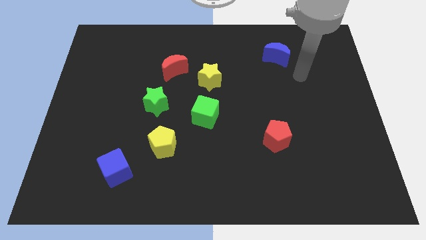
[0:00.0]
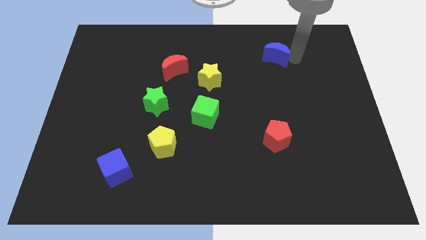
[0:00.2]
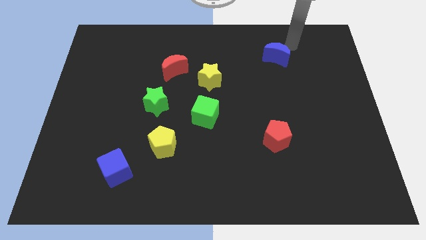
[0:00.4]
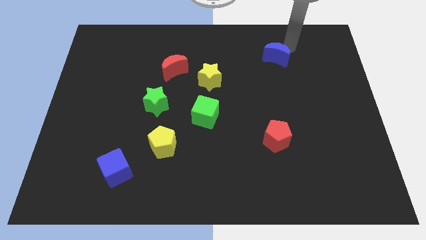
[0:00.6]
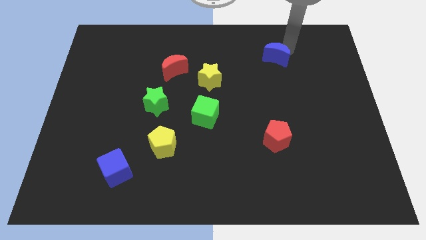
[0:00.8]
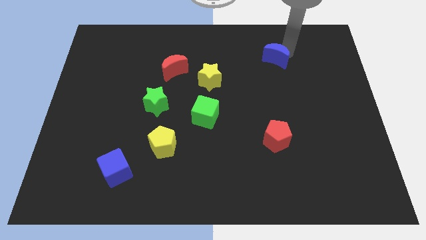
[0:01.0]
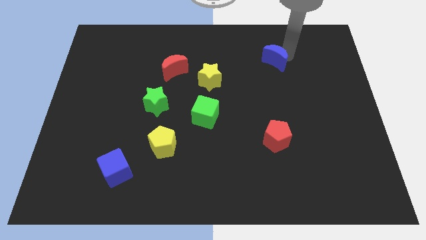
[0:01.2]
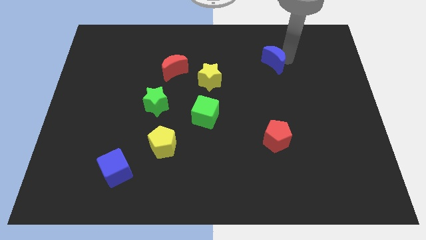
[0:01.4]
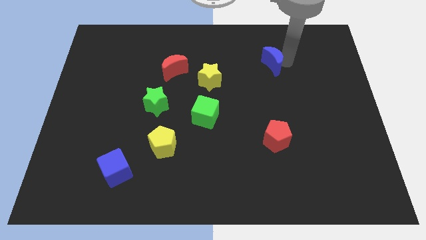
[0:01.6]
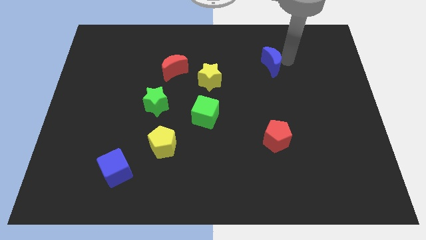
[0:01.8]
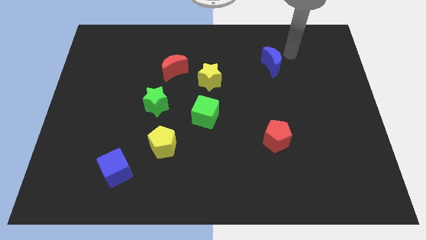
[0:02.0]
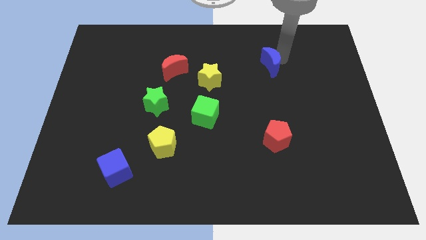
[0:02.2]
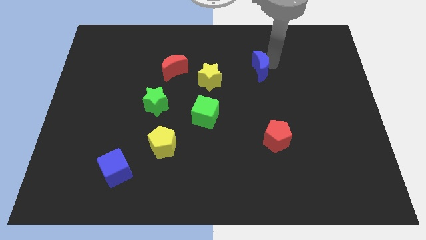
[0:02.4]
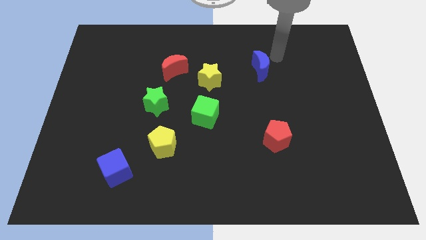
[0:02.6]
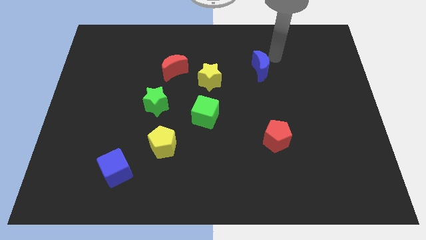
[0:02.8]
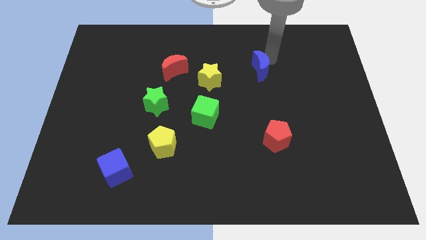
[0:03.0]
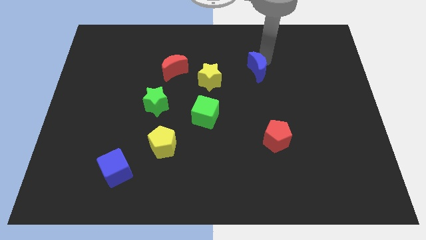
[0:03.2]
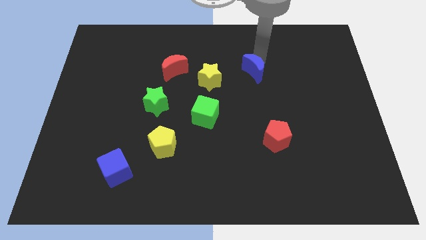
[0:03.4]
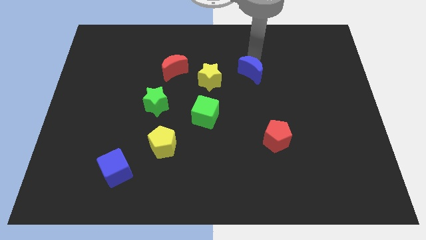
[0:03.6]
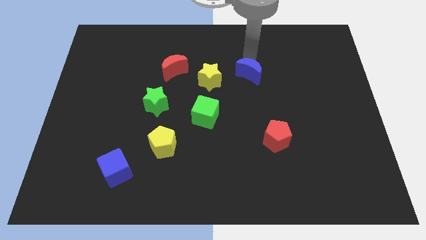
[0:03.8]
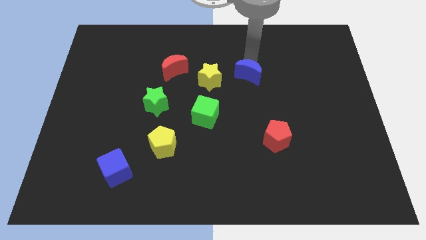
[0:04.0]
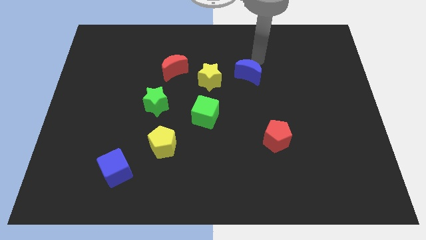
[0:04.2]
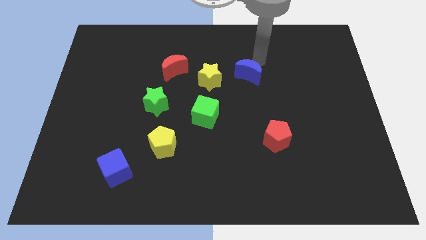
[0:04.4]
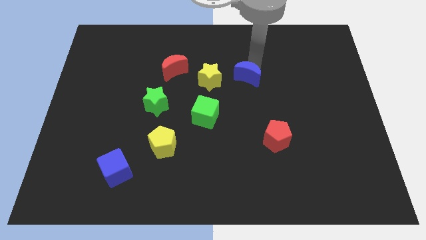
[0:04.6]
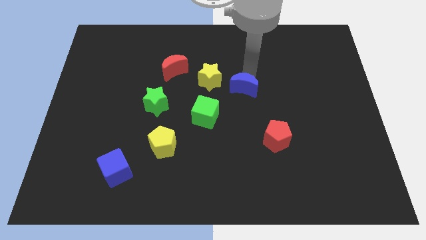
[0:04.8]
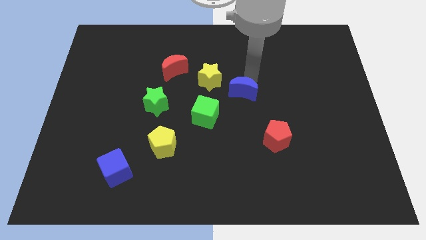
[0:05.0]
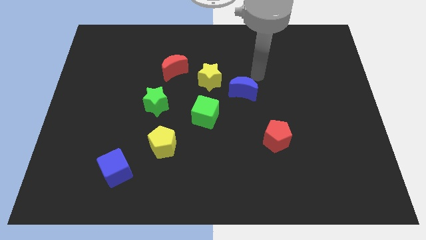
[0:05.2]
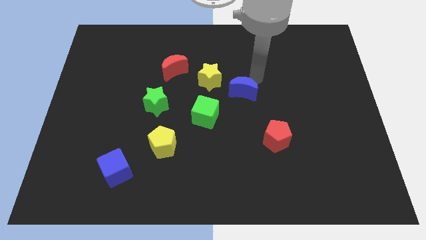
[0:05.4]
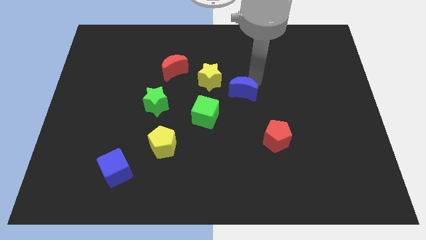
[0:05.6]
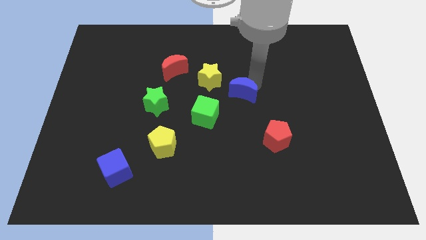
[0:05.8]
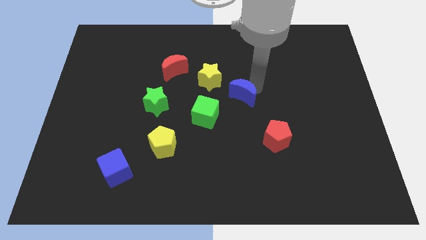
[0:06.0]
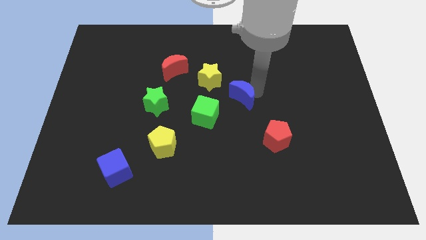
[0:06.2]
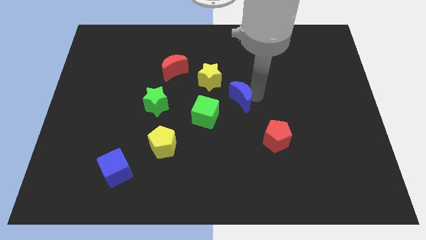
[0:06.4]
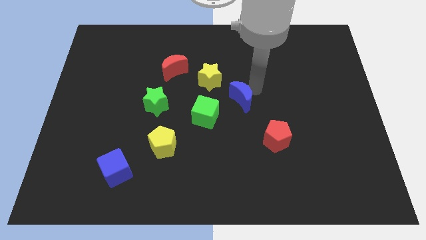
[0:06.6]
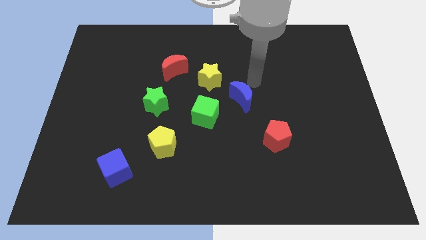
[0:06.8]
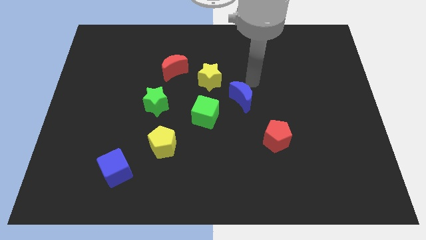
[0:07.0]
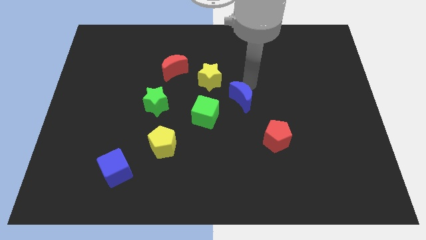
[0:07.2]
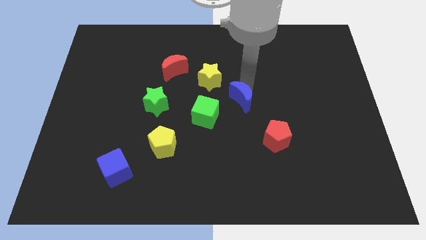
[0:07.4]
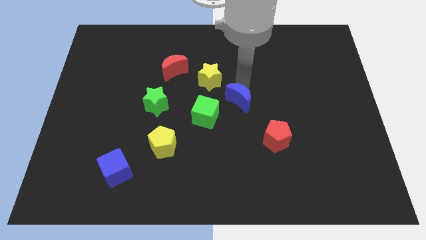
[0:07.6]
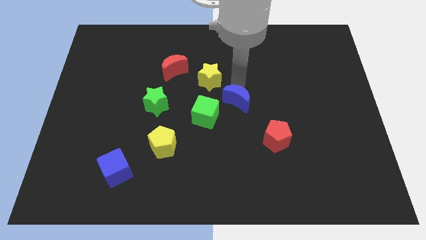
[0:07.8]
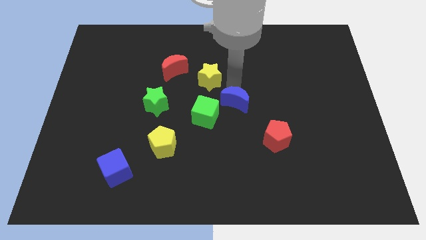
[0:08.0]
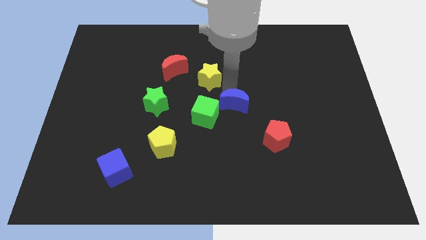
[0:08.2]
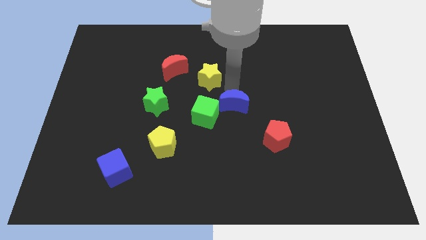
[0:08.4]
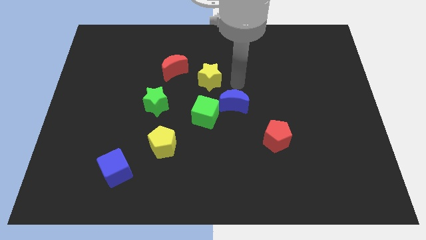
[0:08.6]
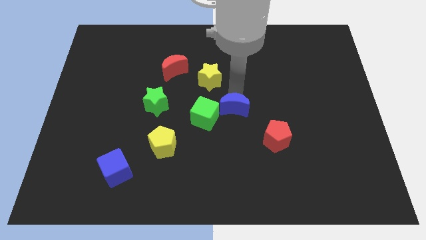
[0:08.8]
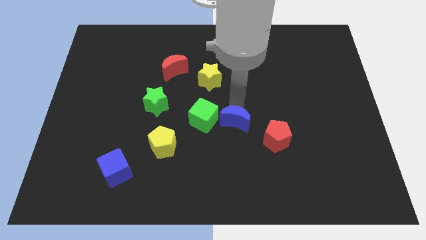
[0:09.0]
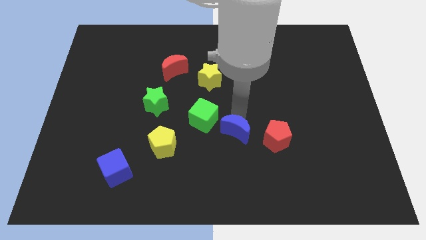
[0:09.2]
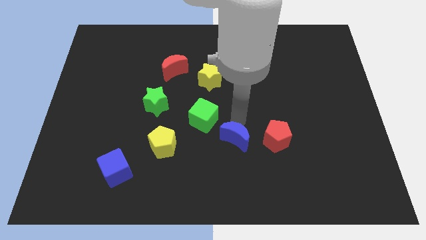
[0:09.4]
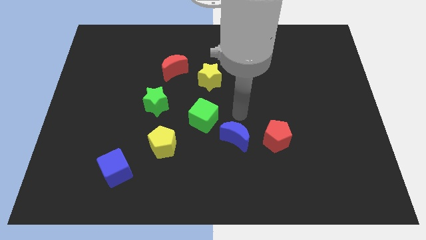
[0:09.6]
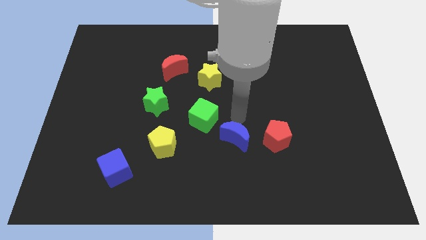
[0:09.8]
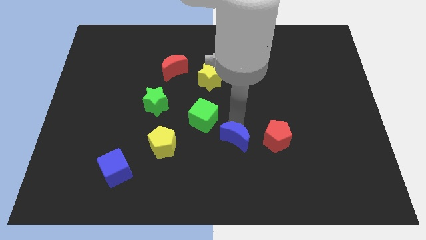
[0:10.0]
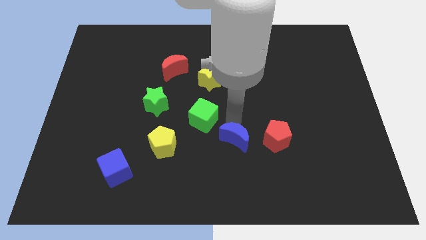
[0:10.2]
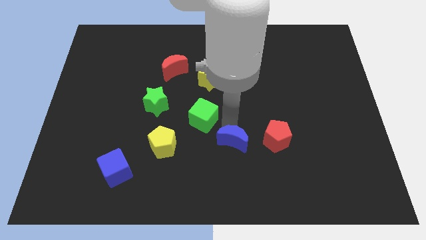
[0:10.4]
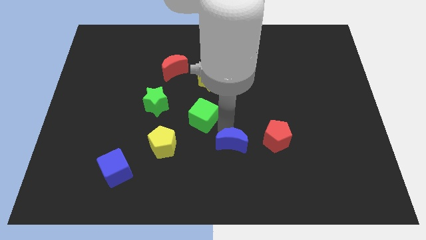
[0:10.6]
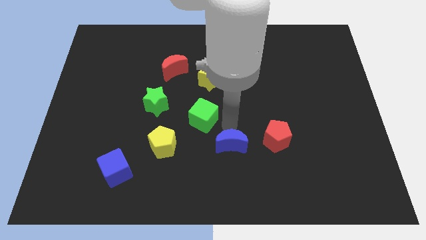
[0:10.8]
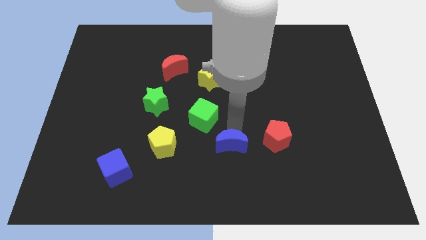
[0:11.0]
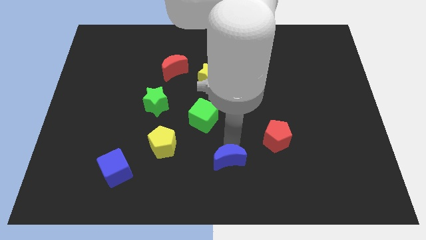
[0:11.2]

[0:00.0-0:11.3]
slide the blue moon to the bottom side

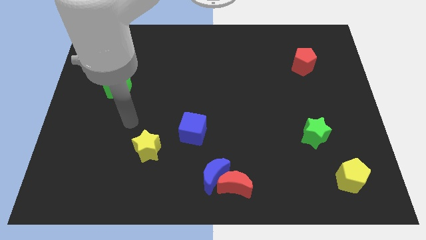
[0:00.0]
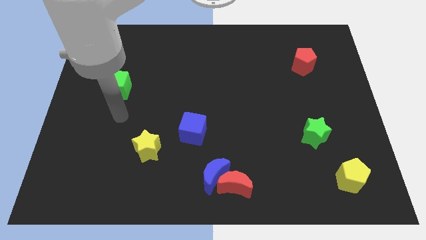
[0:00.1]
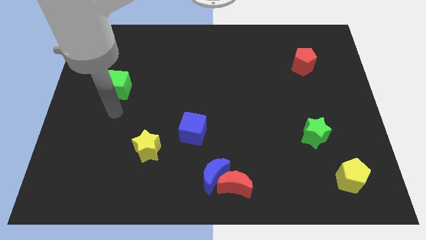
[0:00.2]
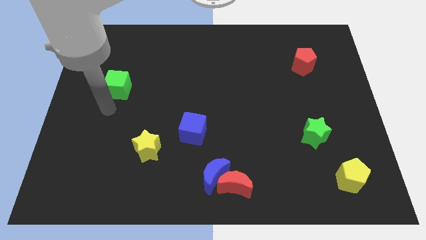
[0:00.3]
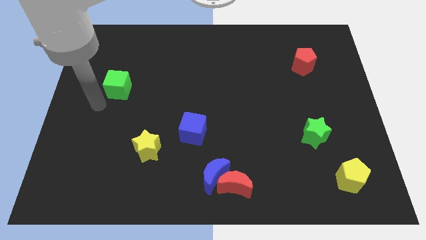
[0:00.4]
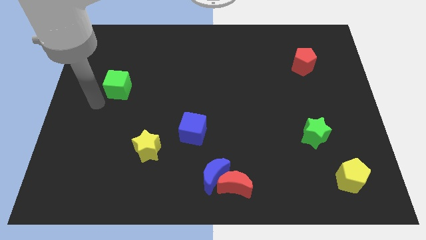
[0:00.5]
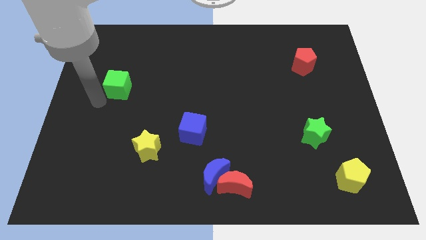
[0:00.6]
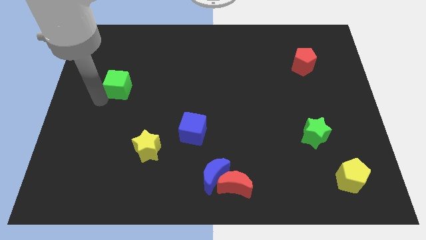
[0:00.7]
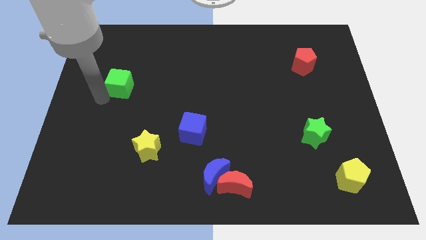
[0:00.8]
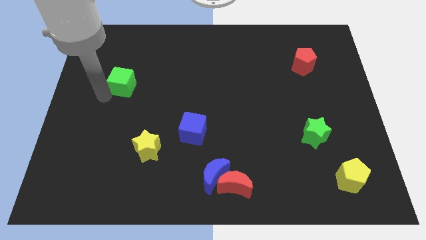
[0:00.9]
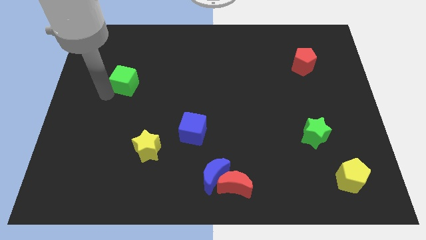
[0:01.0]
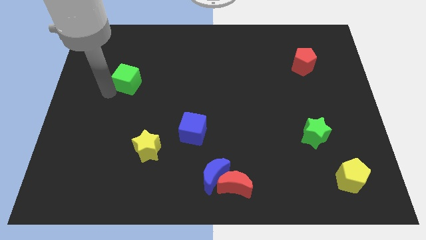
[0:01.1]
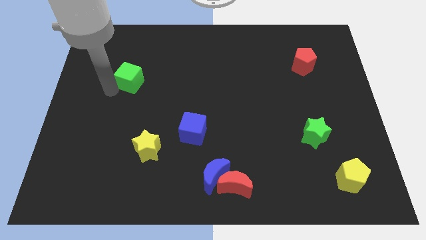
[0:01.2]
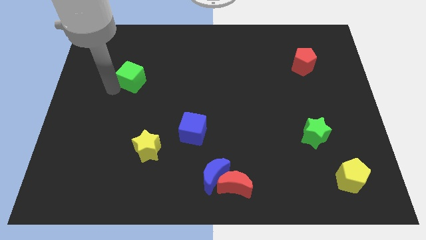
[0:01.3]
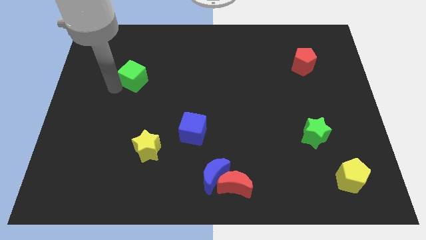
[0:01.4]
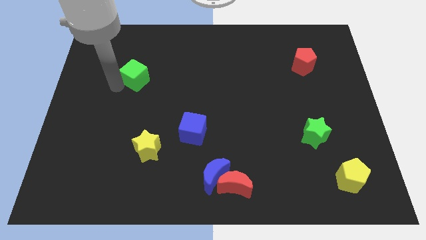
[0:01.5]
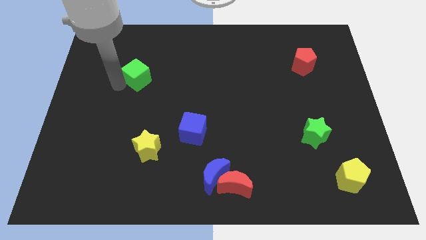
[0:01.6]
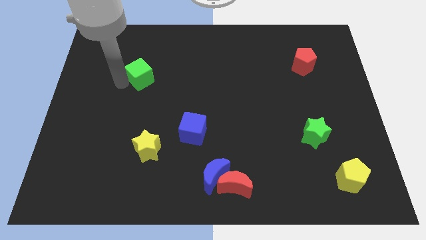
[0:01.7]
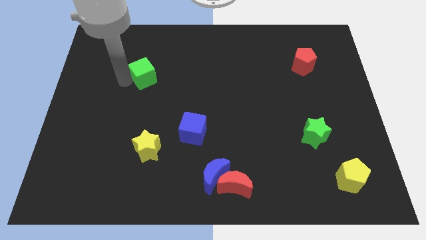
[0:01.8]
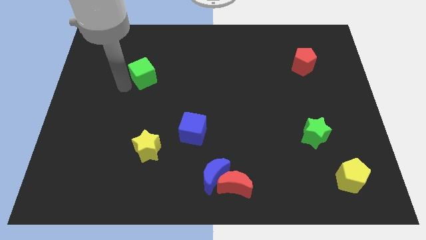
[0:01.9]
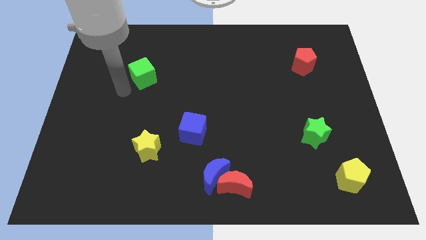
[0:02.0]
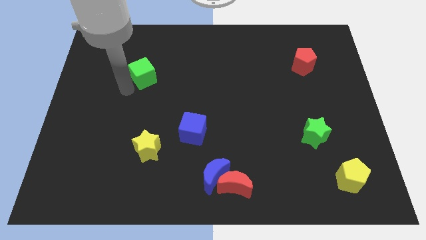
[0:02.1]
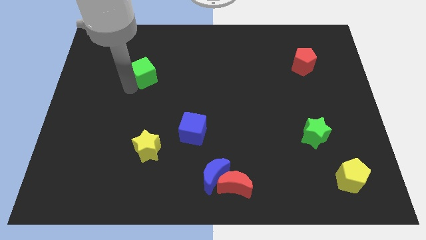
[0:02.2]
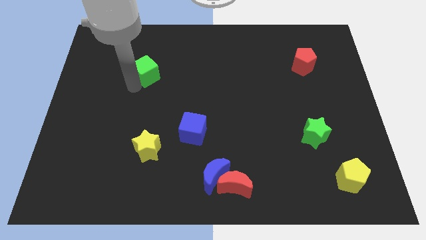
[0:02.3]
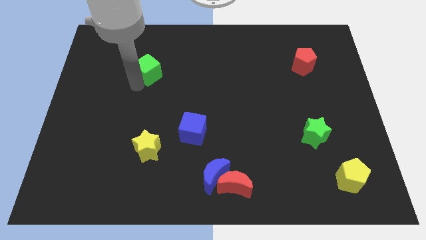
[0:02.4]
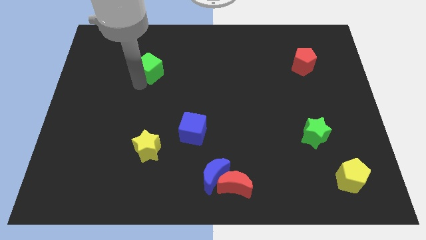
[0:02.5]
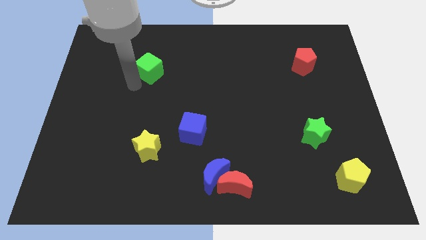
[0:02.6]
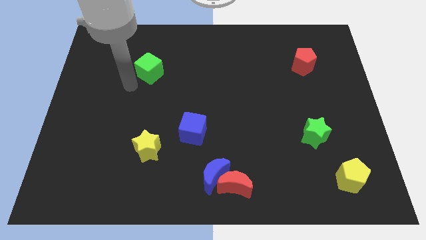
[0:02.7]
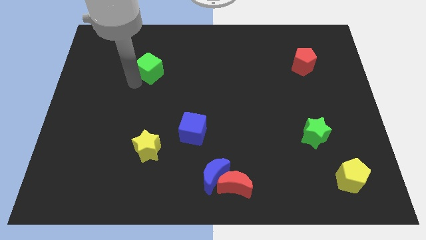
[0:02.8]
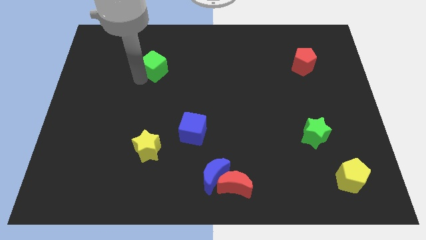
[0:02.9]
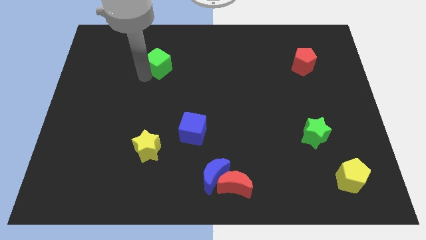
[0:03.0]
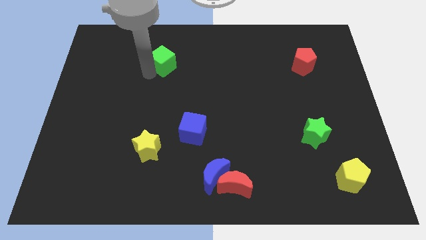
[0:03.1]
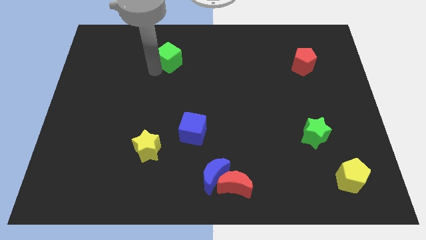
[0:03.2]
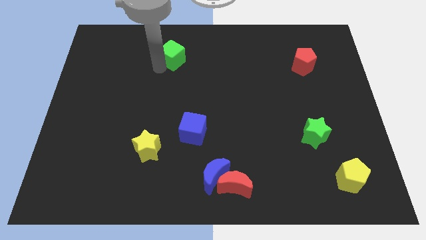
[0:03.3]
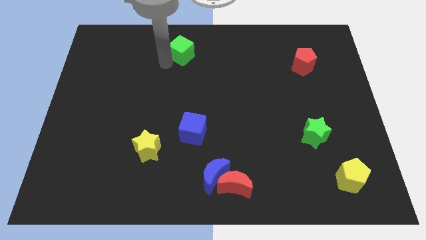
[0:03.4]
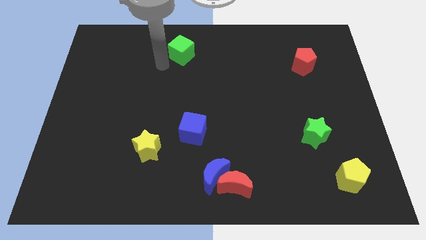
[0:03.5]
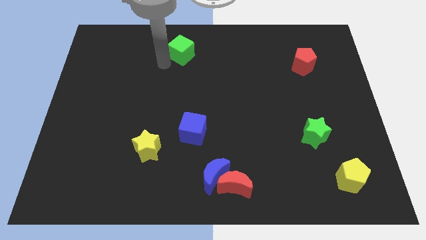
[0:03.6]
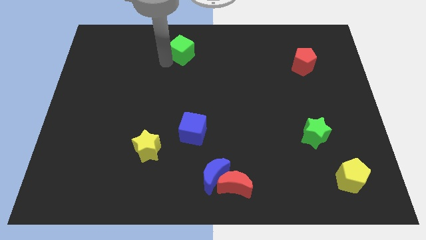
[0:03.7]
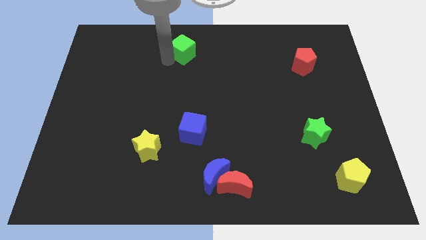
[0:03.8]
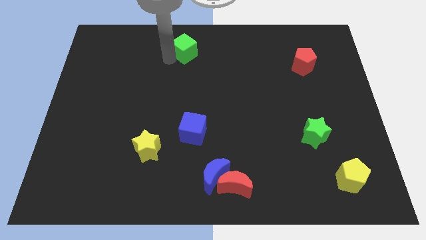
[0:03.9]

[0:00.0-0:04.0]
put the green cube to the top
